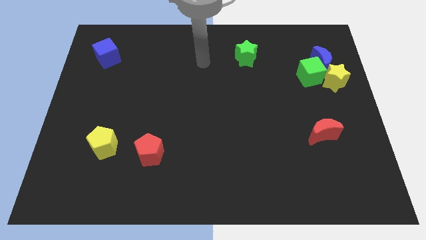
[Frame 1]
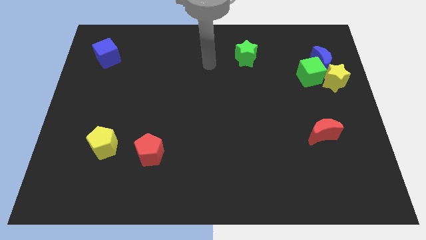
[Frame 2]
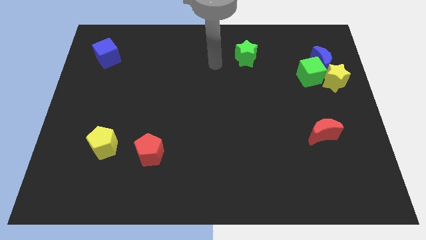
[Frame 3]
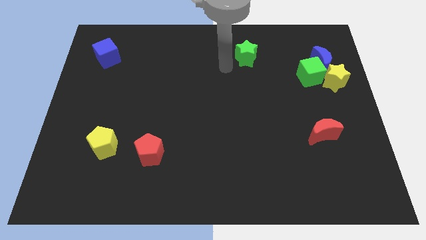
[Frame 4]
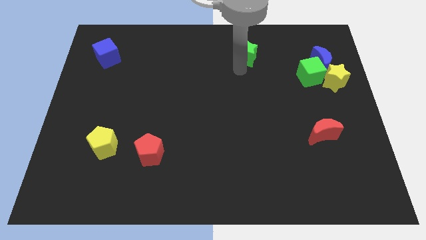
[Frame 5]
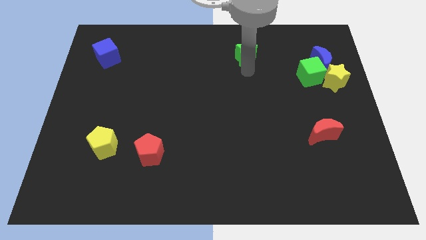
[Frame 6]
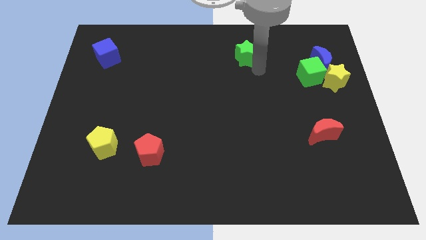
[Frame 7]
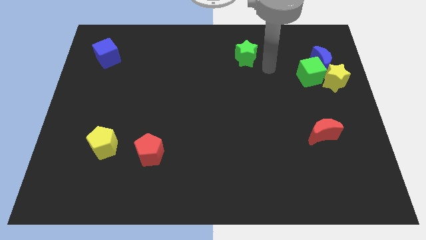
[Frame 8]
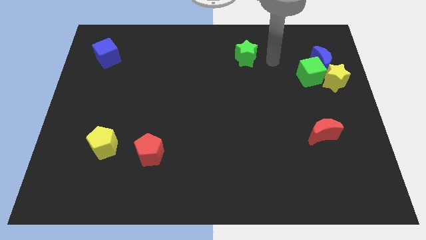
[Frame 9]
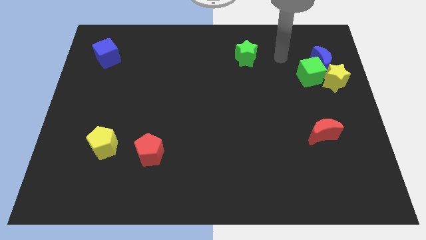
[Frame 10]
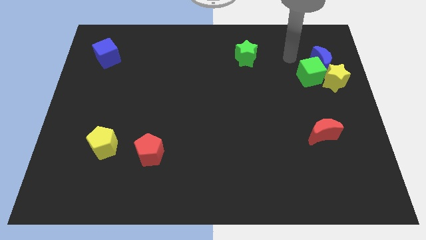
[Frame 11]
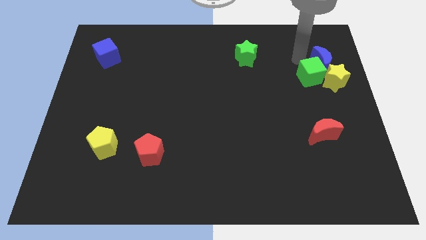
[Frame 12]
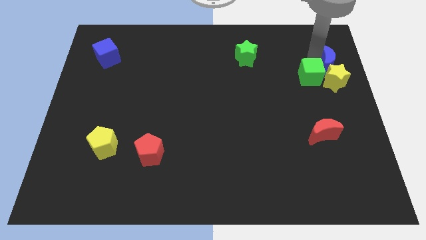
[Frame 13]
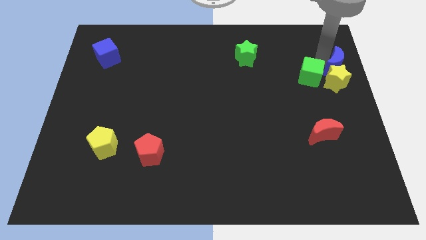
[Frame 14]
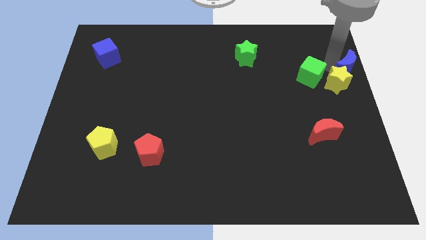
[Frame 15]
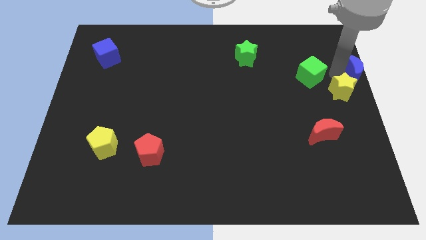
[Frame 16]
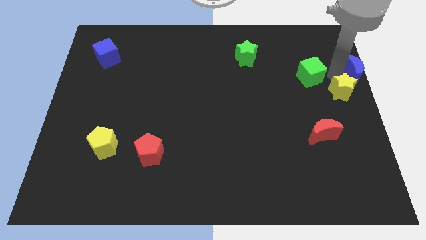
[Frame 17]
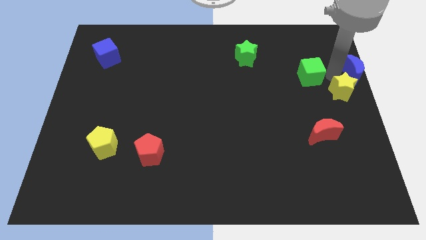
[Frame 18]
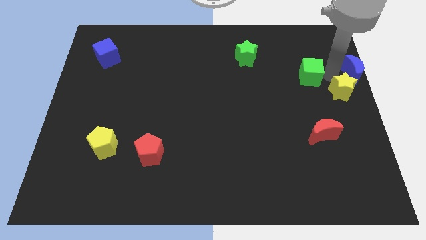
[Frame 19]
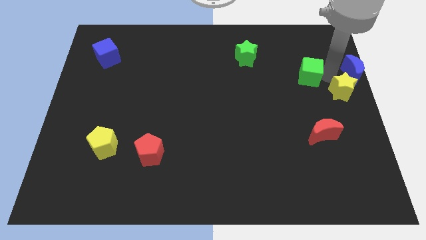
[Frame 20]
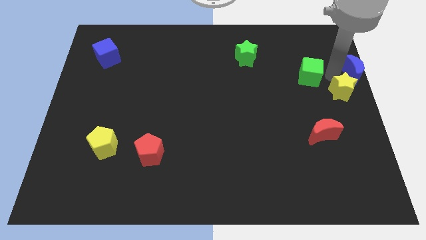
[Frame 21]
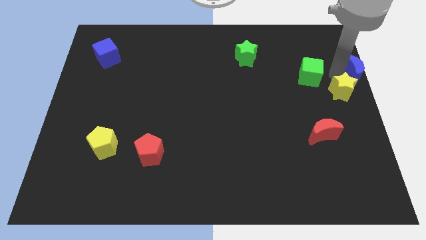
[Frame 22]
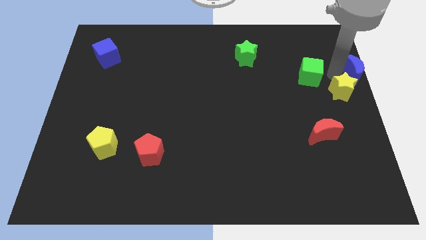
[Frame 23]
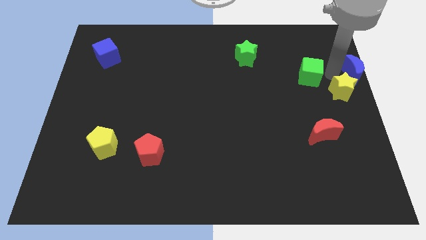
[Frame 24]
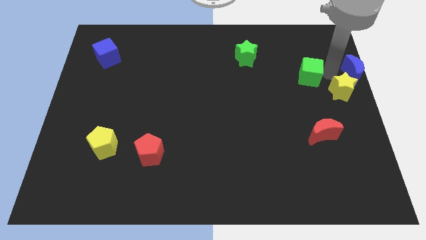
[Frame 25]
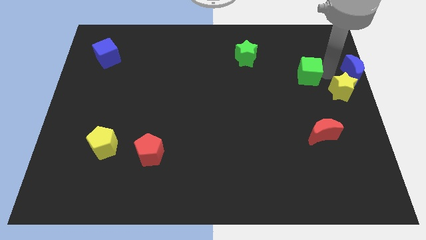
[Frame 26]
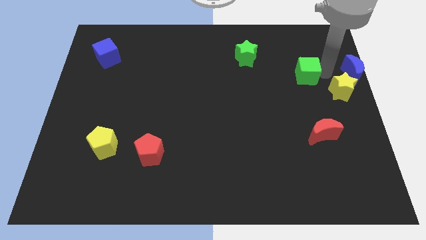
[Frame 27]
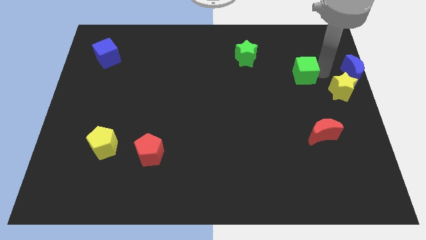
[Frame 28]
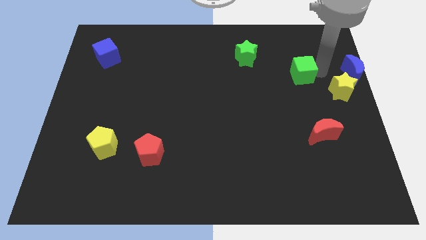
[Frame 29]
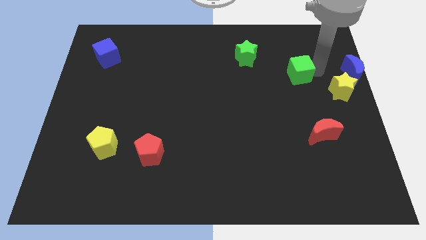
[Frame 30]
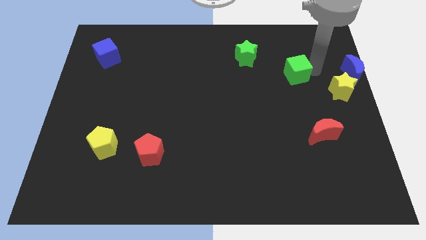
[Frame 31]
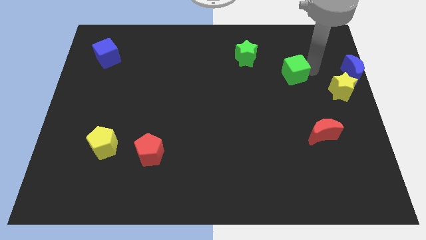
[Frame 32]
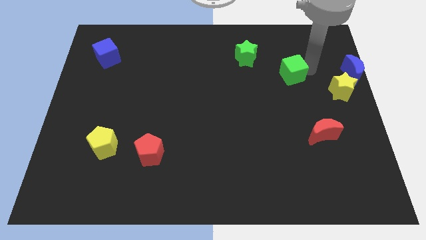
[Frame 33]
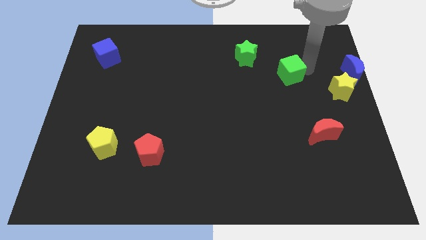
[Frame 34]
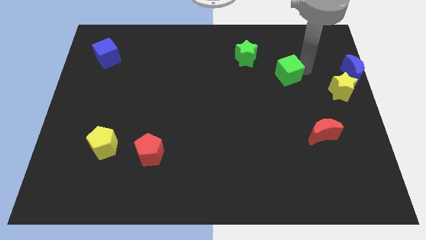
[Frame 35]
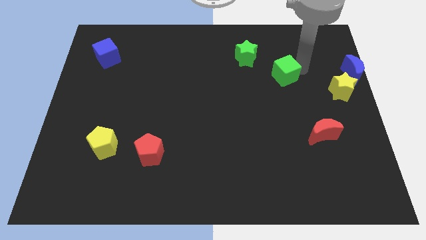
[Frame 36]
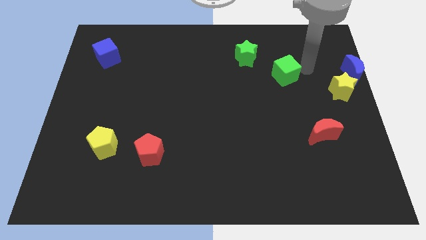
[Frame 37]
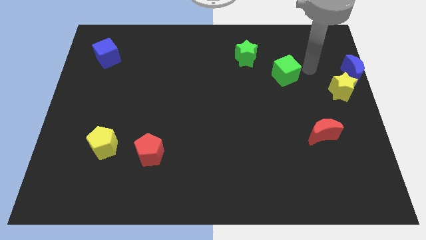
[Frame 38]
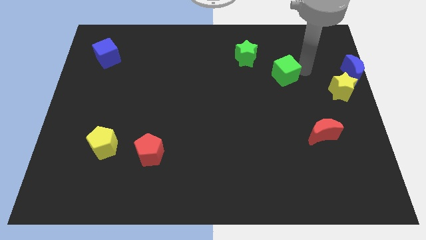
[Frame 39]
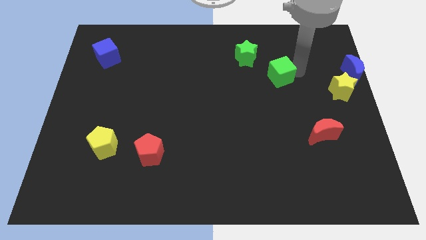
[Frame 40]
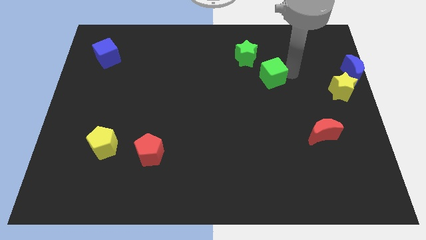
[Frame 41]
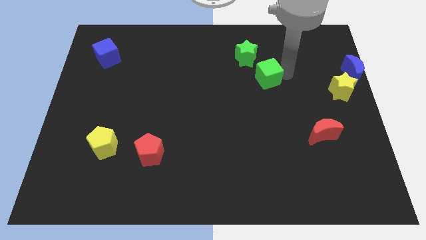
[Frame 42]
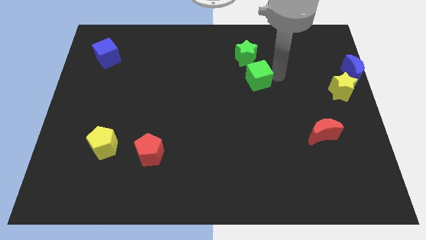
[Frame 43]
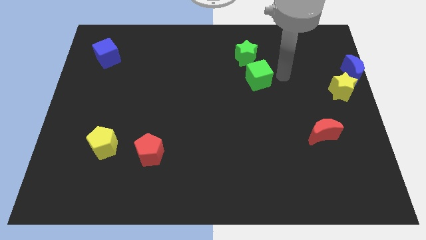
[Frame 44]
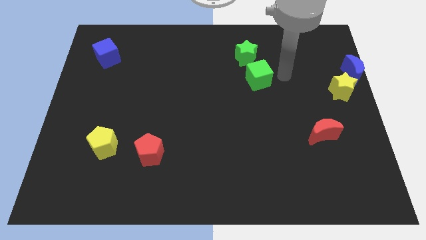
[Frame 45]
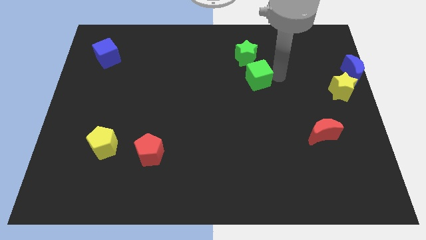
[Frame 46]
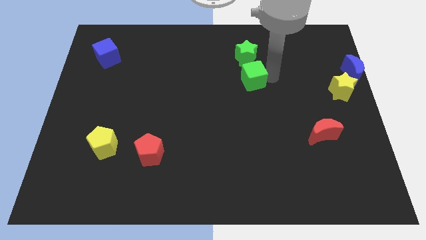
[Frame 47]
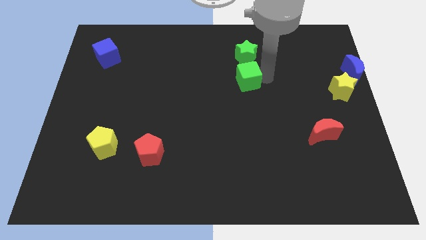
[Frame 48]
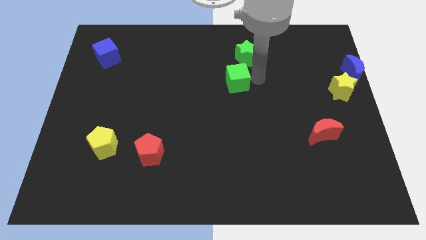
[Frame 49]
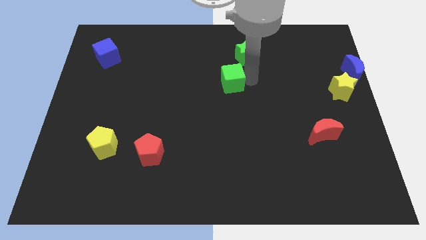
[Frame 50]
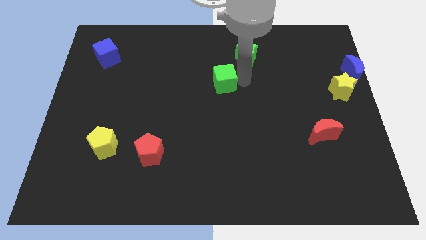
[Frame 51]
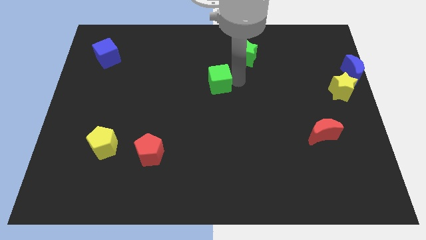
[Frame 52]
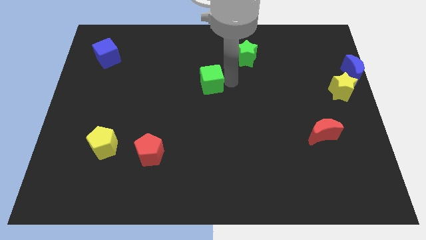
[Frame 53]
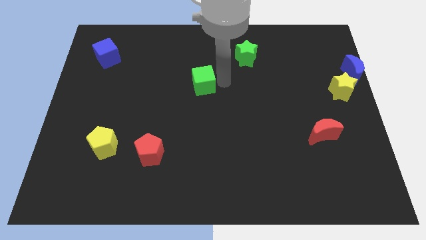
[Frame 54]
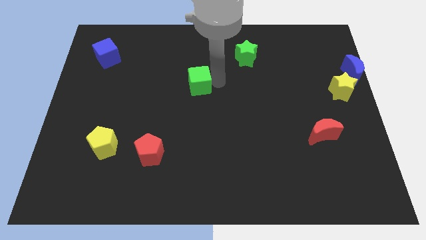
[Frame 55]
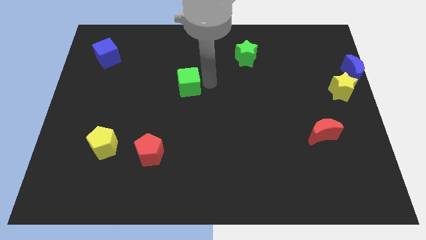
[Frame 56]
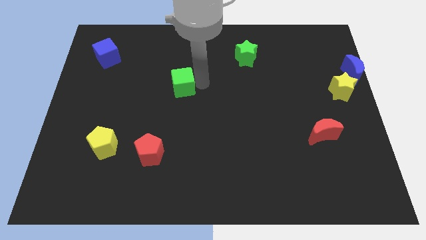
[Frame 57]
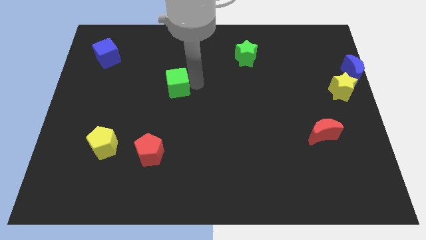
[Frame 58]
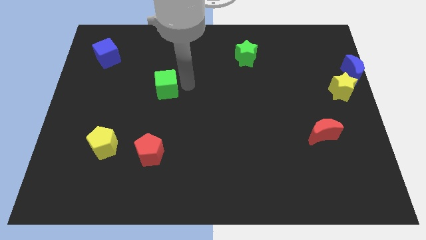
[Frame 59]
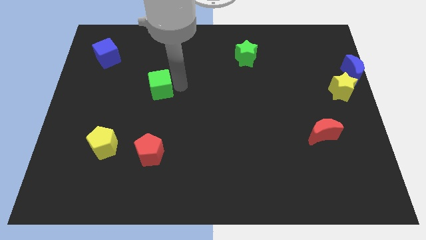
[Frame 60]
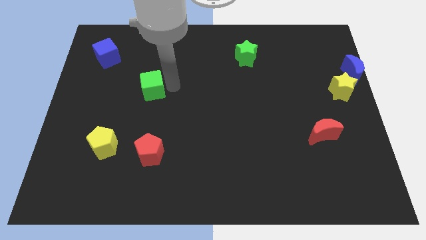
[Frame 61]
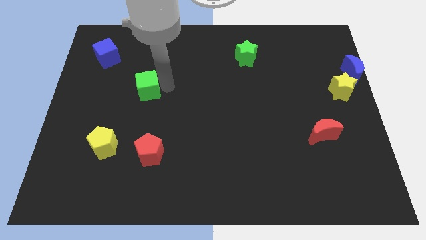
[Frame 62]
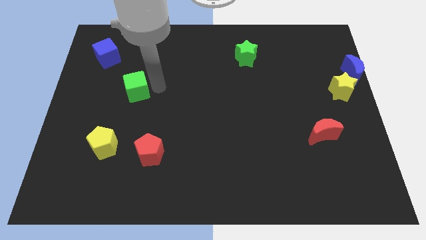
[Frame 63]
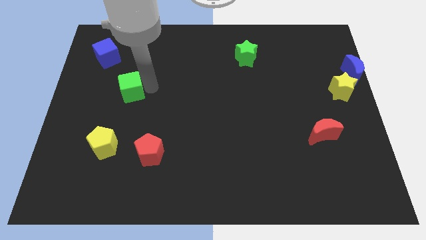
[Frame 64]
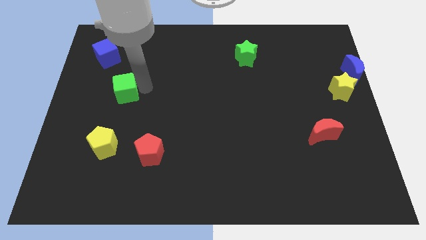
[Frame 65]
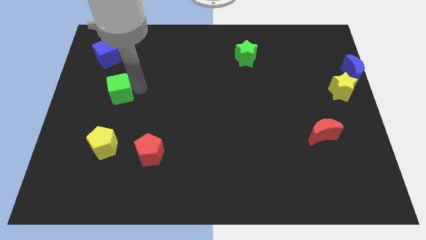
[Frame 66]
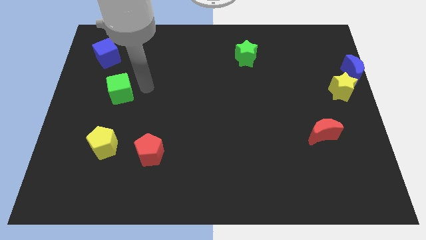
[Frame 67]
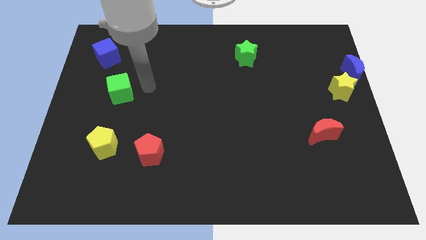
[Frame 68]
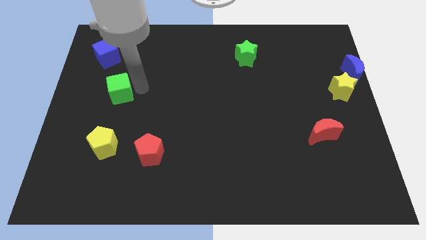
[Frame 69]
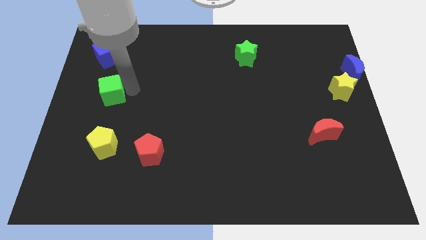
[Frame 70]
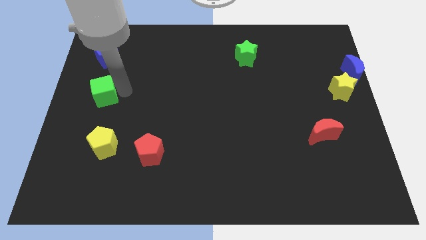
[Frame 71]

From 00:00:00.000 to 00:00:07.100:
push the green cube to the left side of the board
